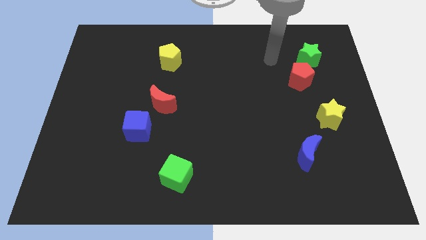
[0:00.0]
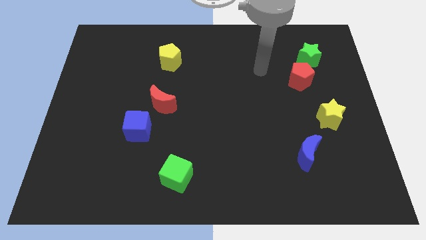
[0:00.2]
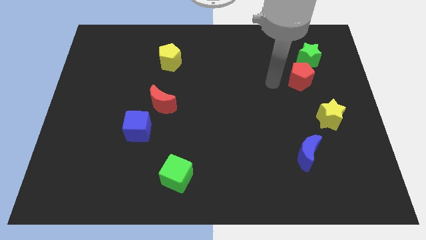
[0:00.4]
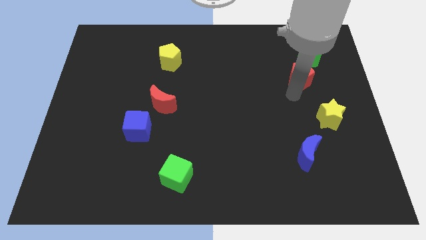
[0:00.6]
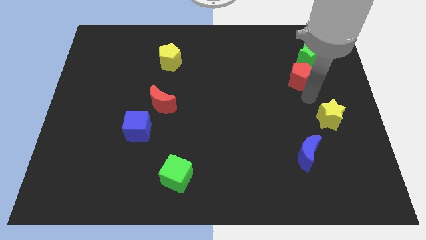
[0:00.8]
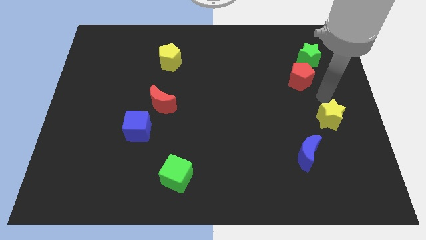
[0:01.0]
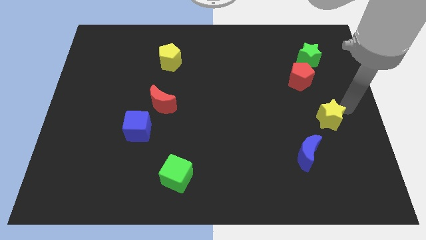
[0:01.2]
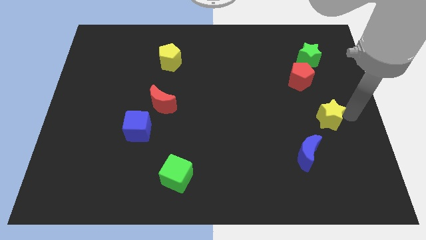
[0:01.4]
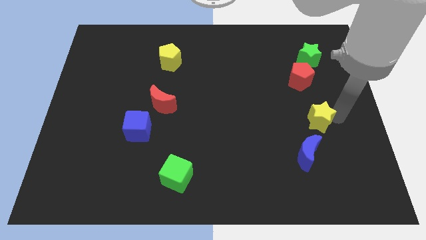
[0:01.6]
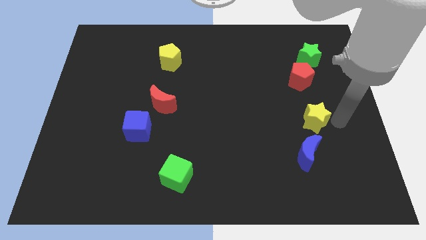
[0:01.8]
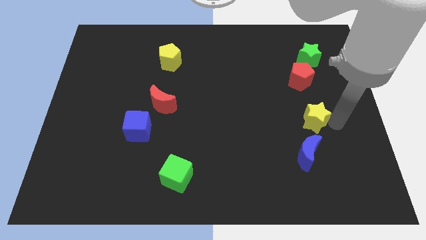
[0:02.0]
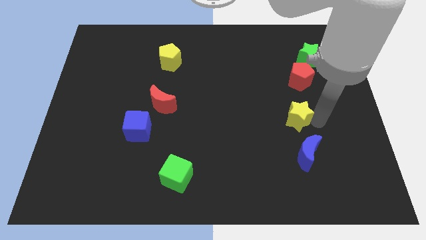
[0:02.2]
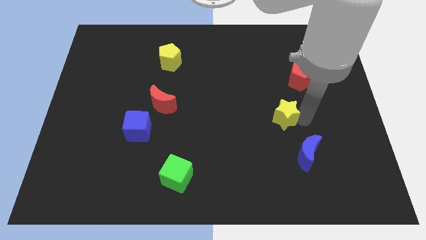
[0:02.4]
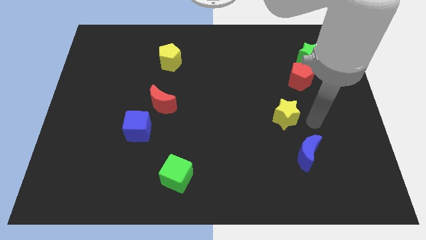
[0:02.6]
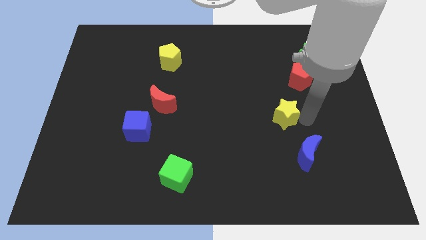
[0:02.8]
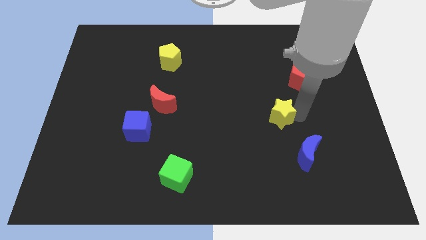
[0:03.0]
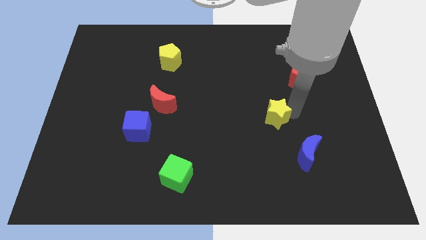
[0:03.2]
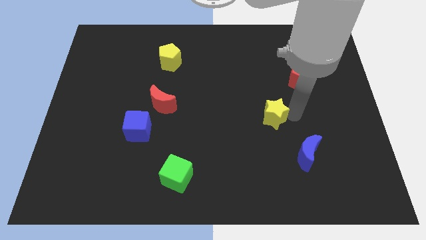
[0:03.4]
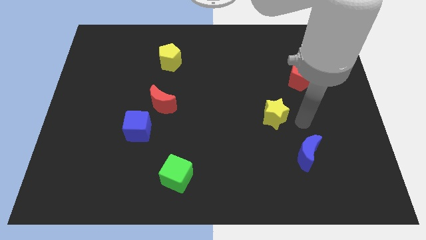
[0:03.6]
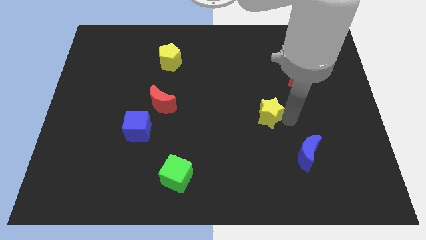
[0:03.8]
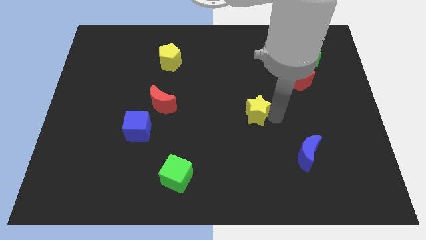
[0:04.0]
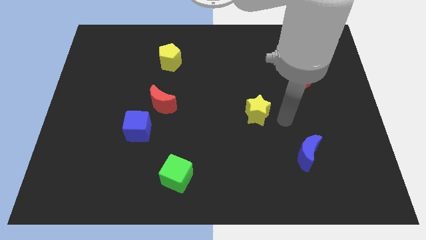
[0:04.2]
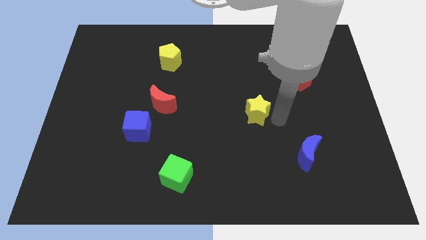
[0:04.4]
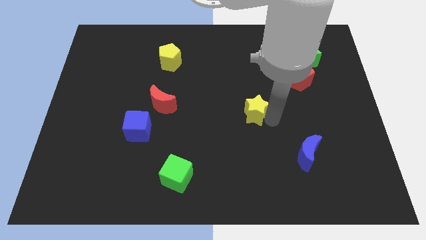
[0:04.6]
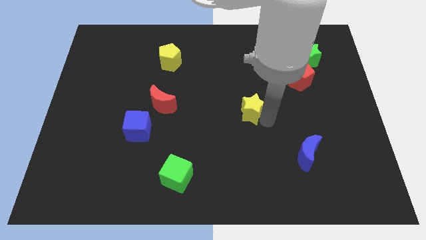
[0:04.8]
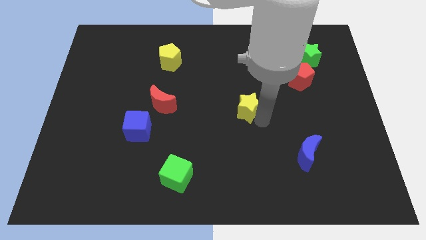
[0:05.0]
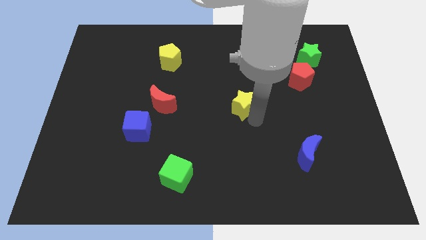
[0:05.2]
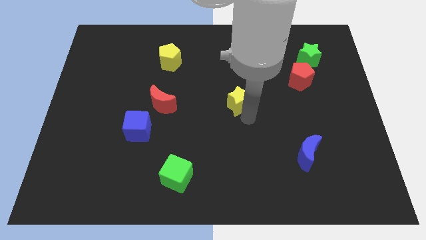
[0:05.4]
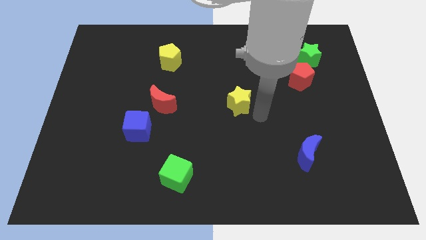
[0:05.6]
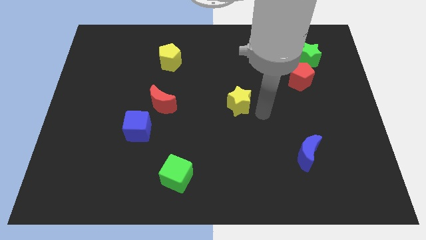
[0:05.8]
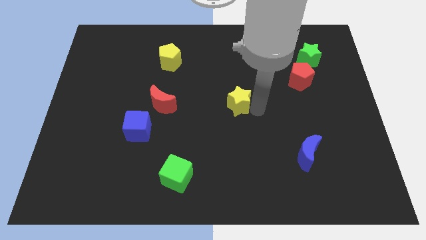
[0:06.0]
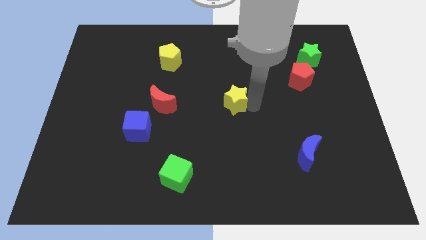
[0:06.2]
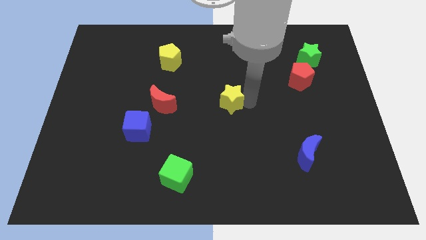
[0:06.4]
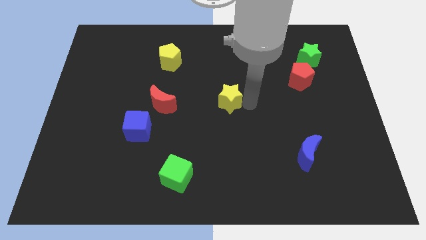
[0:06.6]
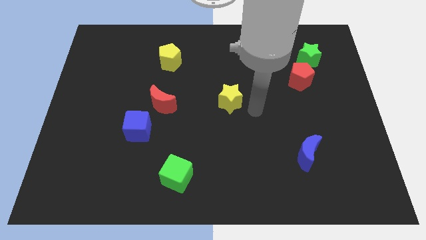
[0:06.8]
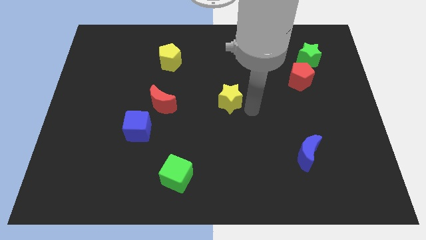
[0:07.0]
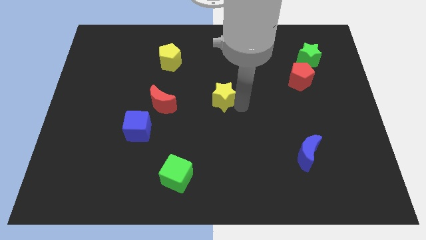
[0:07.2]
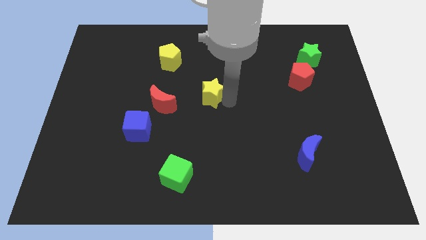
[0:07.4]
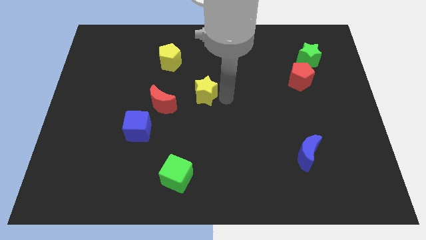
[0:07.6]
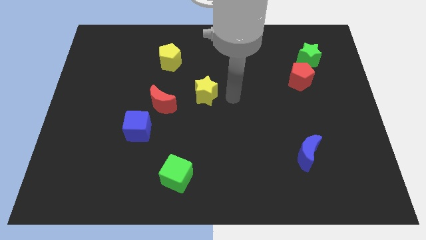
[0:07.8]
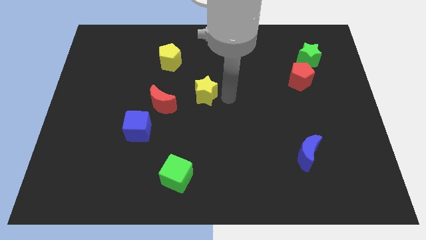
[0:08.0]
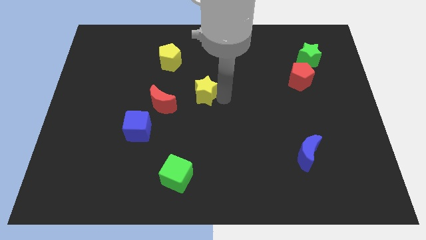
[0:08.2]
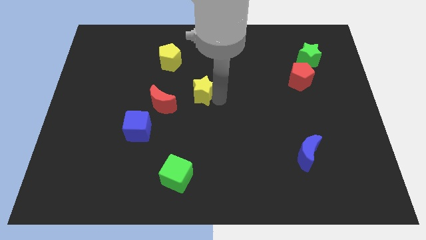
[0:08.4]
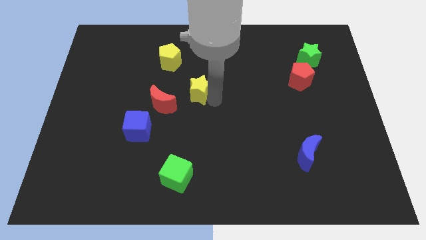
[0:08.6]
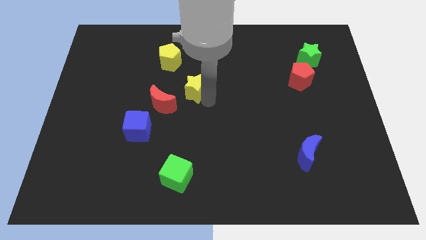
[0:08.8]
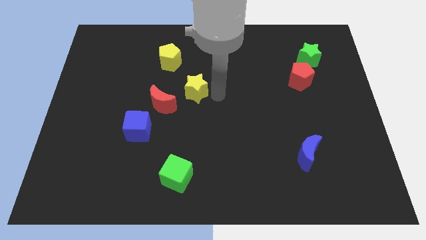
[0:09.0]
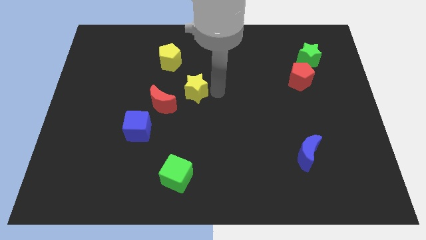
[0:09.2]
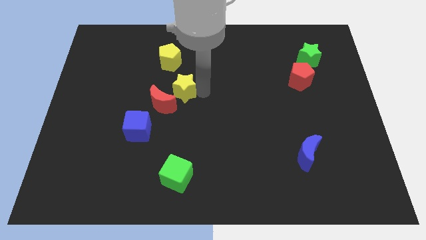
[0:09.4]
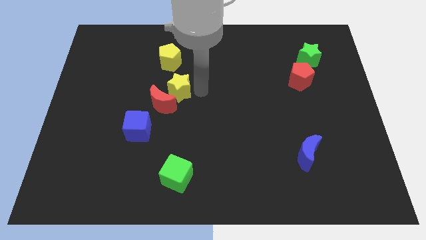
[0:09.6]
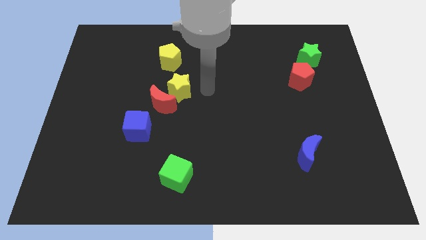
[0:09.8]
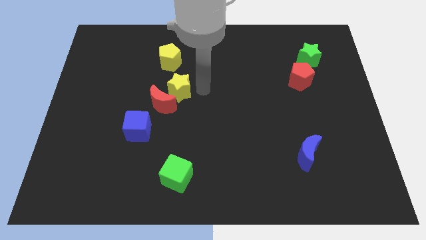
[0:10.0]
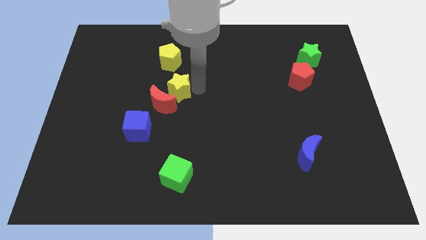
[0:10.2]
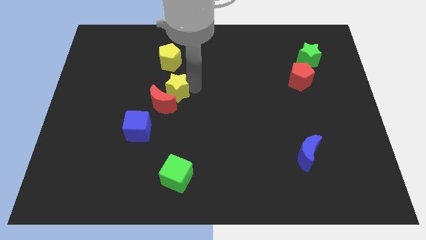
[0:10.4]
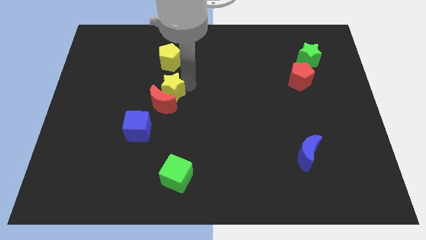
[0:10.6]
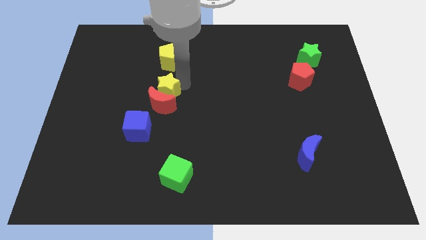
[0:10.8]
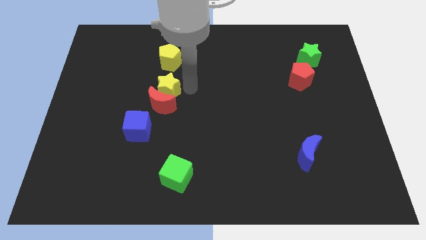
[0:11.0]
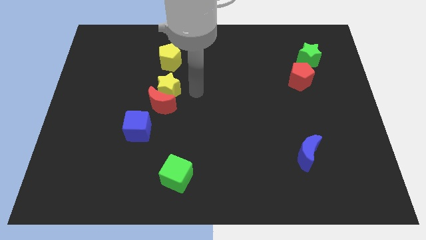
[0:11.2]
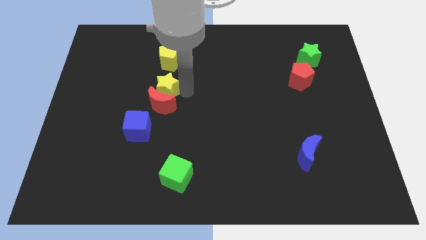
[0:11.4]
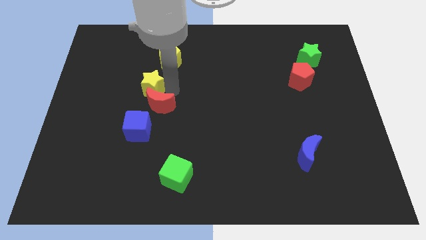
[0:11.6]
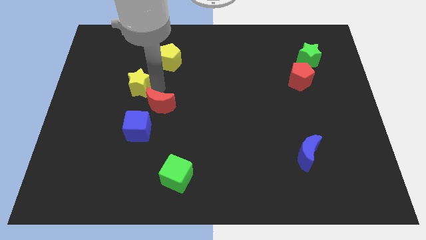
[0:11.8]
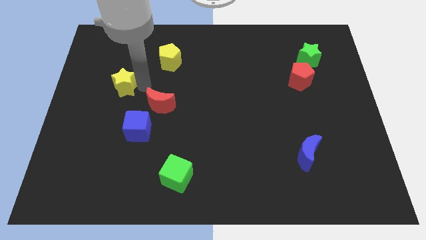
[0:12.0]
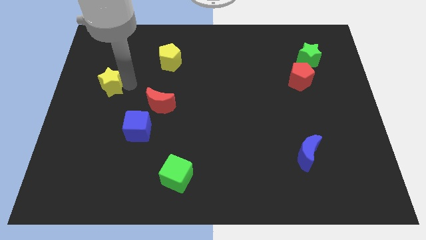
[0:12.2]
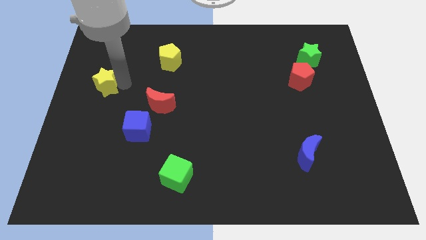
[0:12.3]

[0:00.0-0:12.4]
push the yellow star to the left side of the board

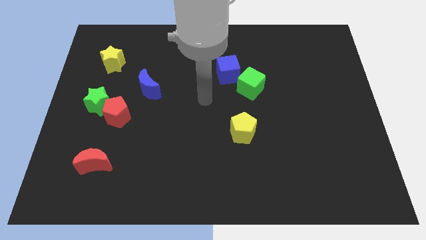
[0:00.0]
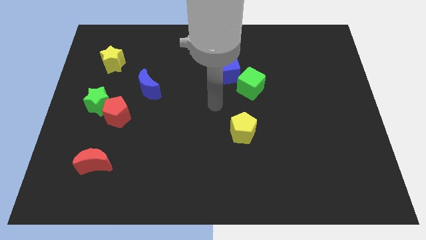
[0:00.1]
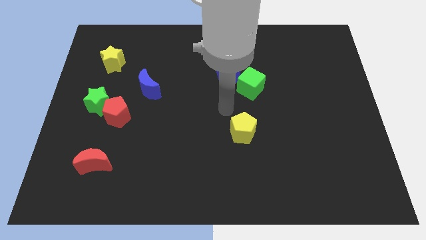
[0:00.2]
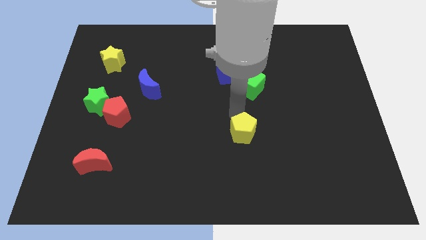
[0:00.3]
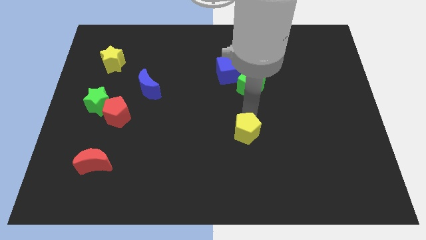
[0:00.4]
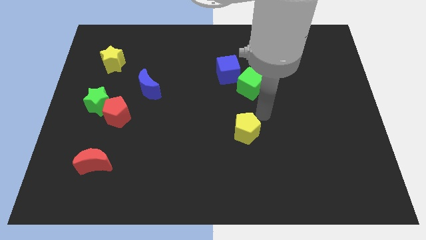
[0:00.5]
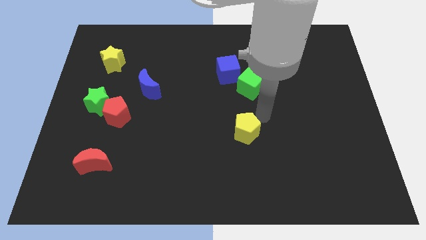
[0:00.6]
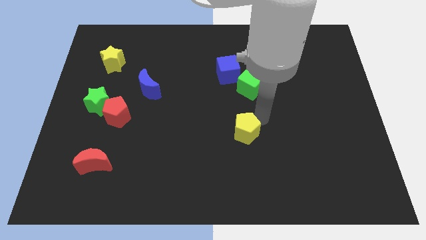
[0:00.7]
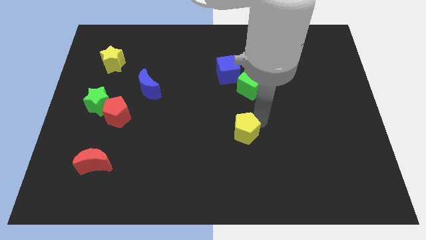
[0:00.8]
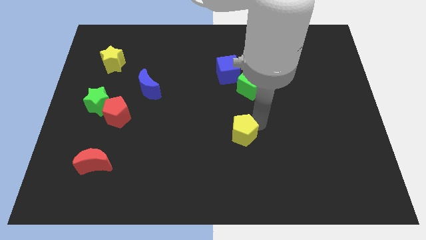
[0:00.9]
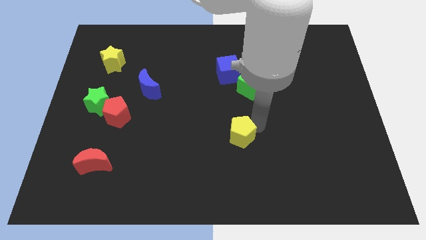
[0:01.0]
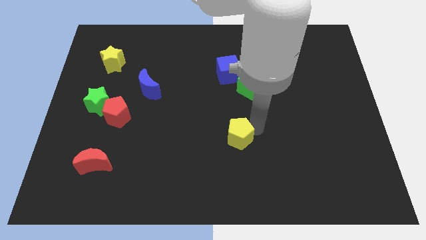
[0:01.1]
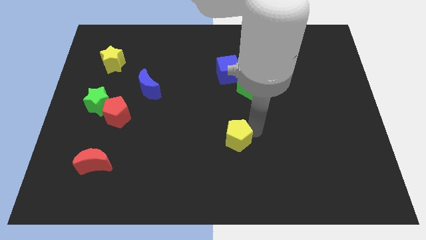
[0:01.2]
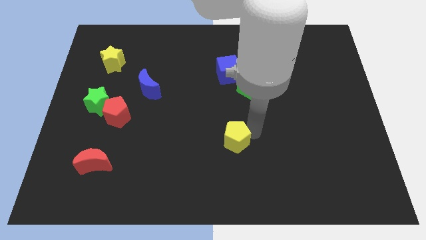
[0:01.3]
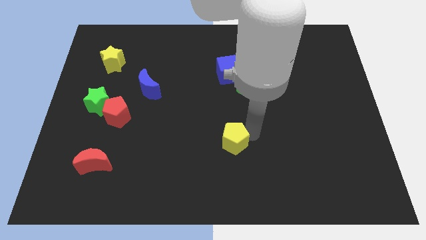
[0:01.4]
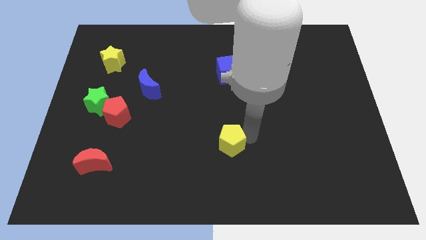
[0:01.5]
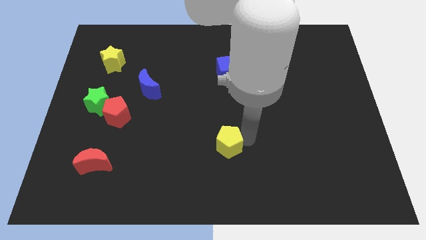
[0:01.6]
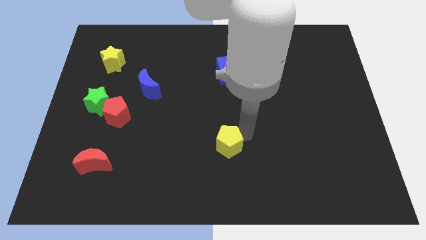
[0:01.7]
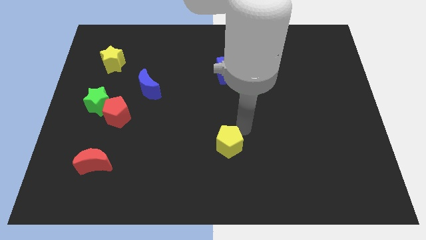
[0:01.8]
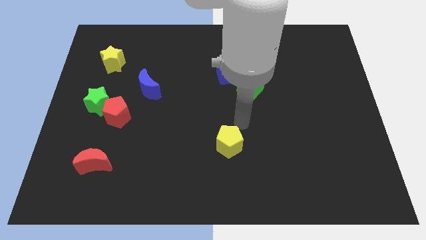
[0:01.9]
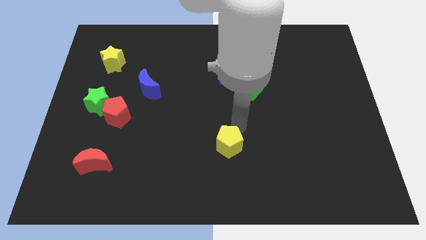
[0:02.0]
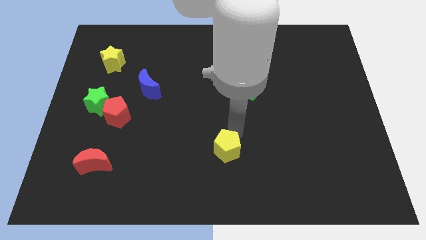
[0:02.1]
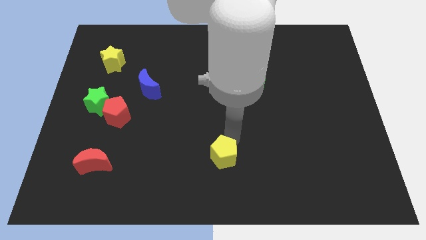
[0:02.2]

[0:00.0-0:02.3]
put the yellow pentagon to the bottom
